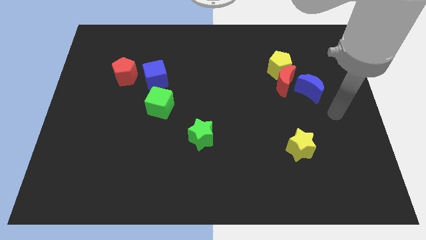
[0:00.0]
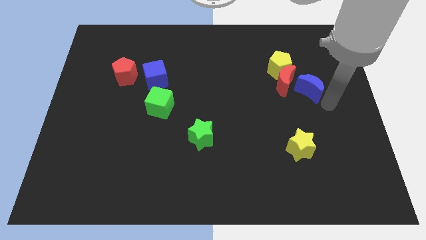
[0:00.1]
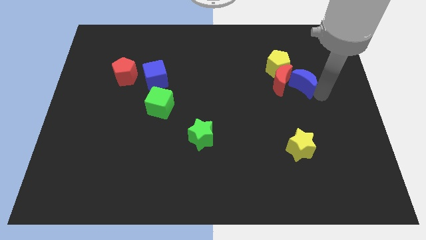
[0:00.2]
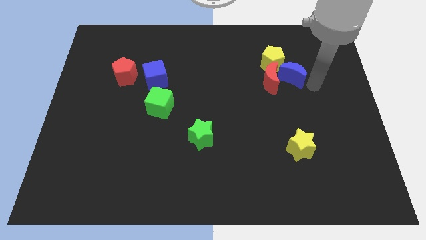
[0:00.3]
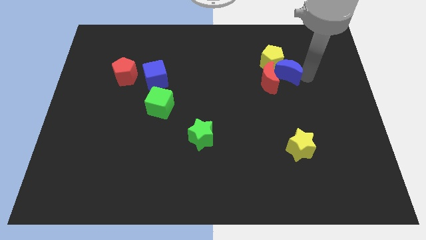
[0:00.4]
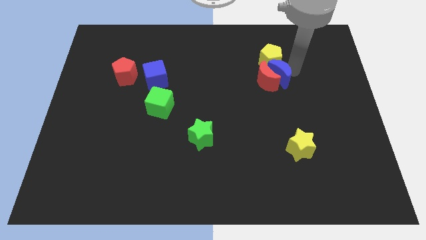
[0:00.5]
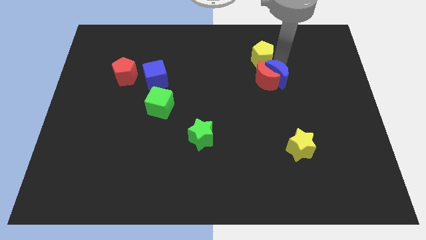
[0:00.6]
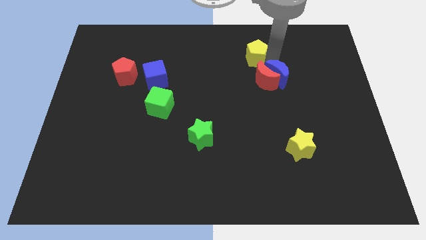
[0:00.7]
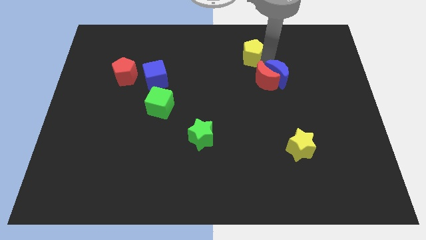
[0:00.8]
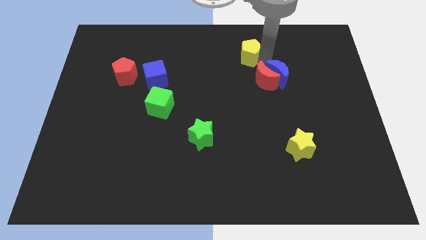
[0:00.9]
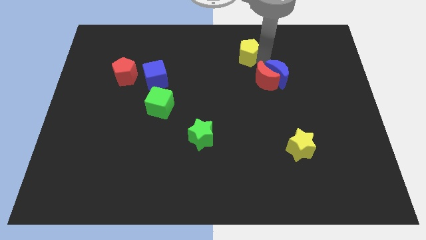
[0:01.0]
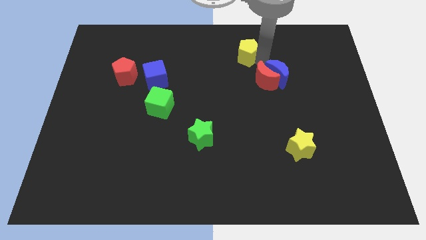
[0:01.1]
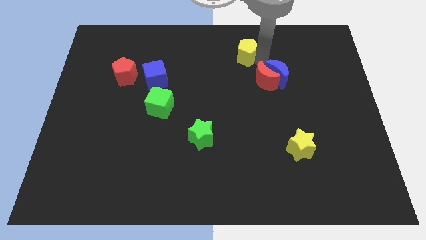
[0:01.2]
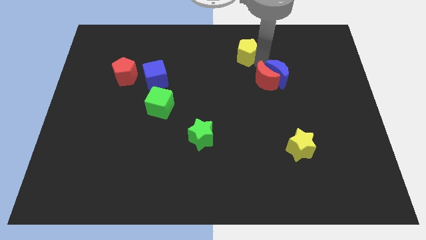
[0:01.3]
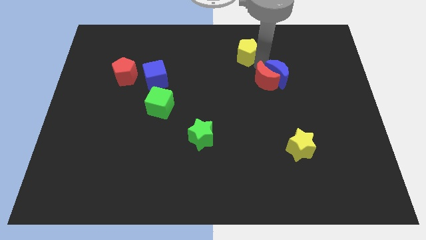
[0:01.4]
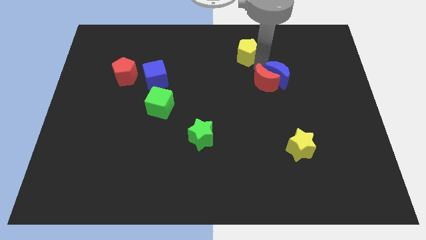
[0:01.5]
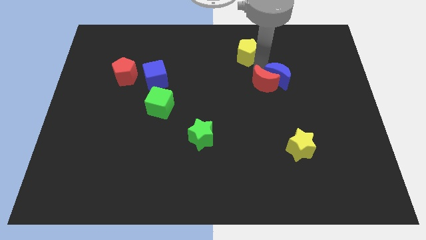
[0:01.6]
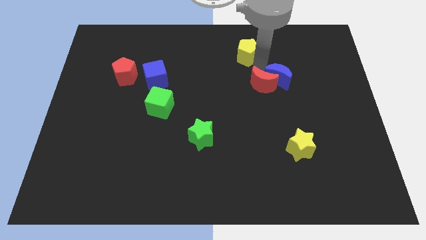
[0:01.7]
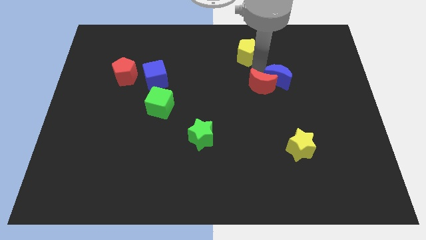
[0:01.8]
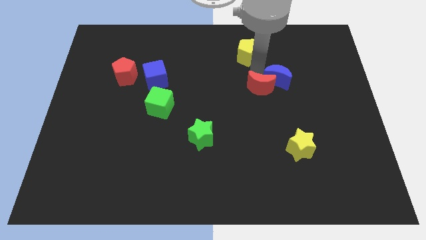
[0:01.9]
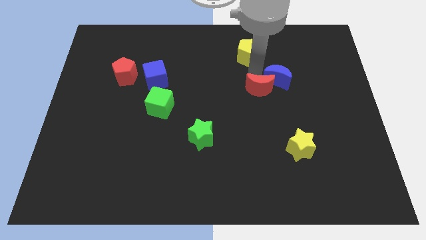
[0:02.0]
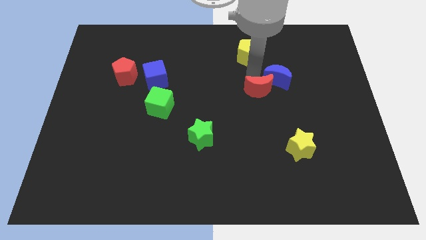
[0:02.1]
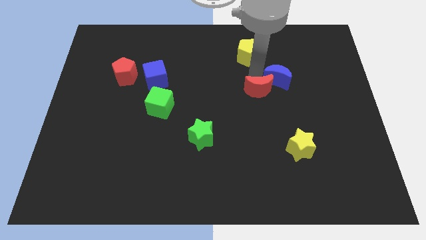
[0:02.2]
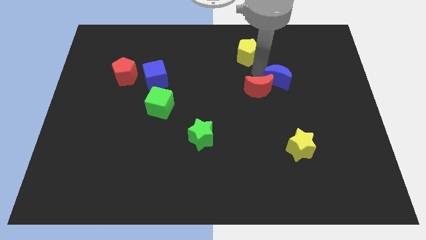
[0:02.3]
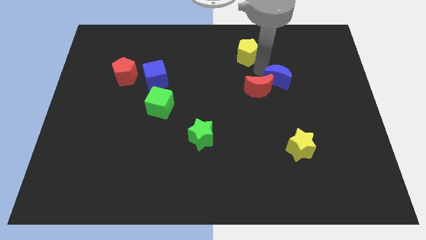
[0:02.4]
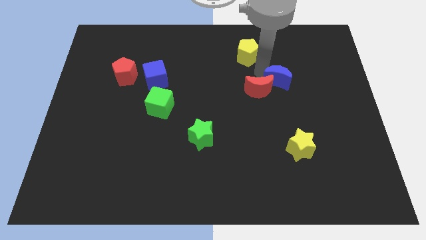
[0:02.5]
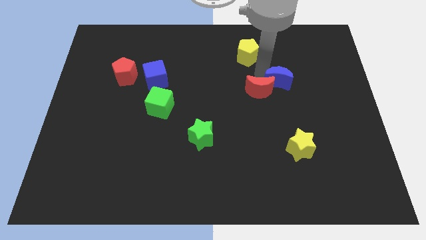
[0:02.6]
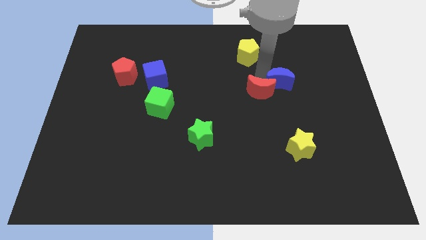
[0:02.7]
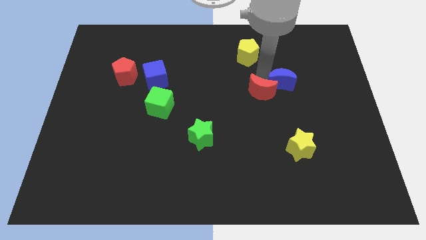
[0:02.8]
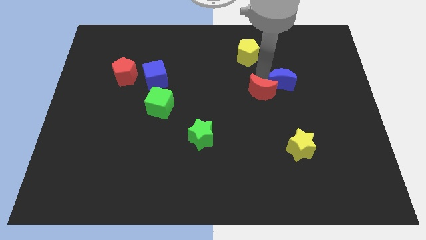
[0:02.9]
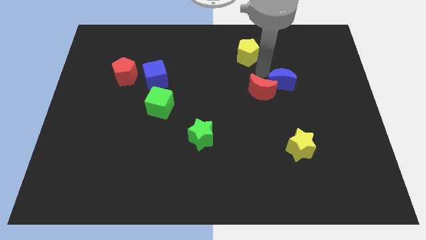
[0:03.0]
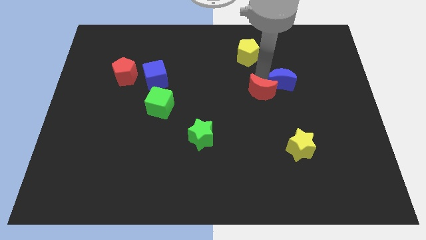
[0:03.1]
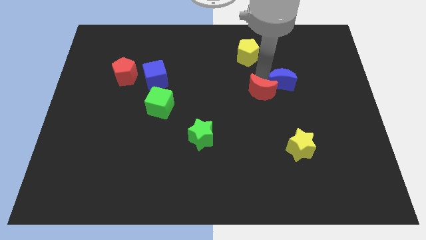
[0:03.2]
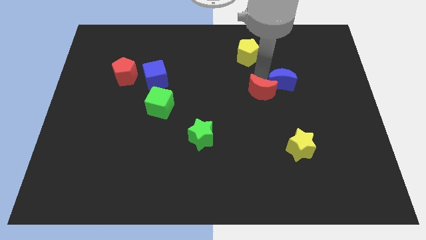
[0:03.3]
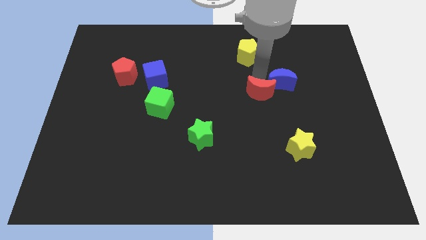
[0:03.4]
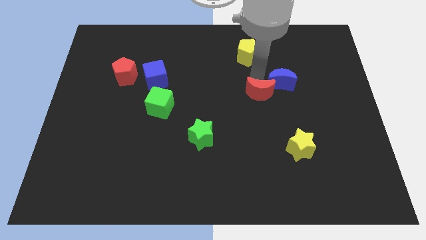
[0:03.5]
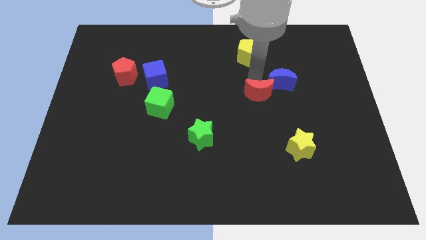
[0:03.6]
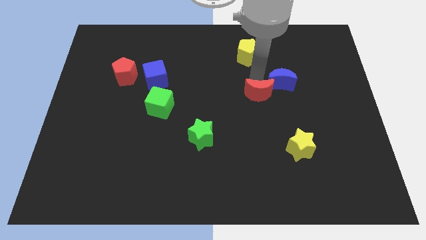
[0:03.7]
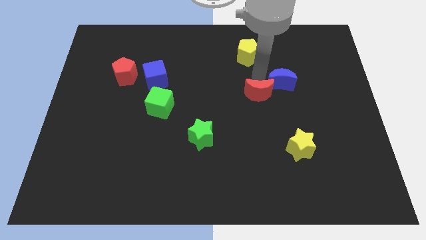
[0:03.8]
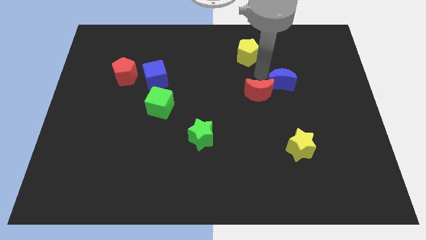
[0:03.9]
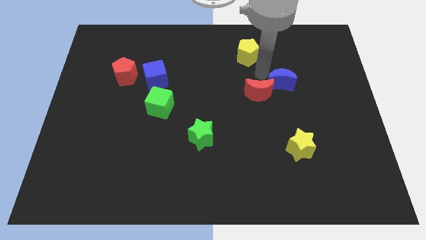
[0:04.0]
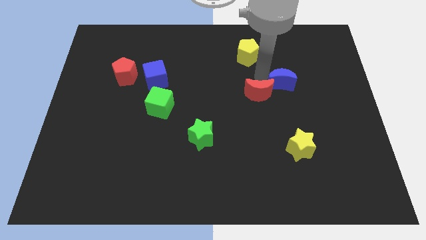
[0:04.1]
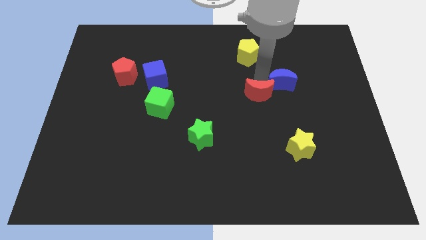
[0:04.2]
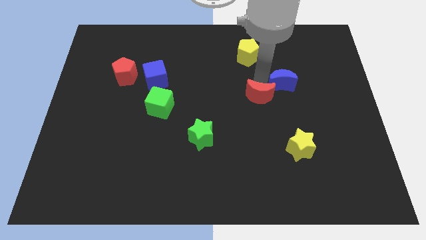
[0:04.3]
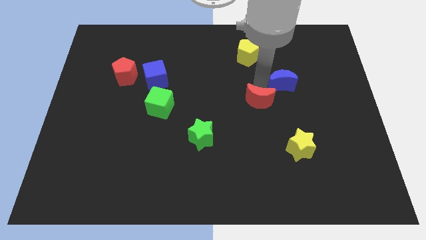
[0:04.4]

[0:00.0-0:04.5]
move the red moon away from the yellow pentagon and blue moon

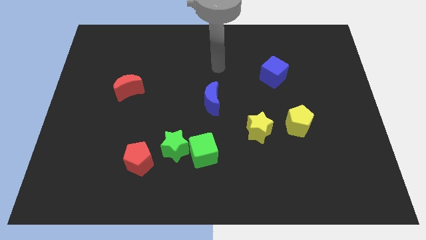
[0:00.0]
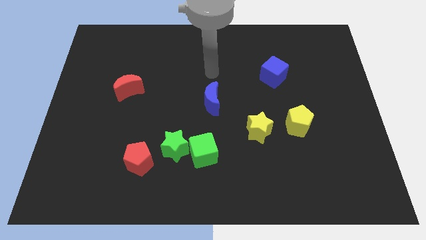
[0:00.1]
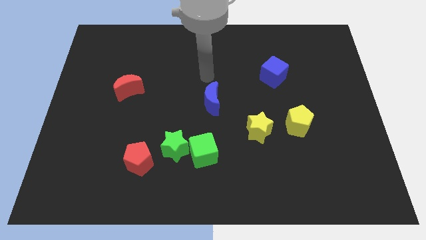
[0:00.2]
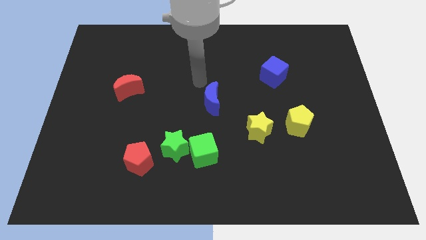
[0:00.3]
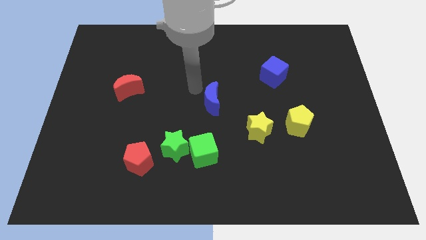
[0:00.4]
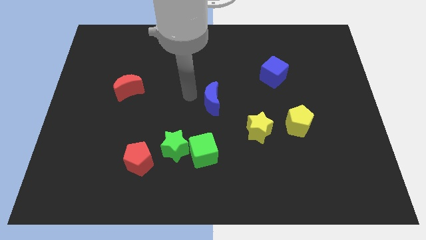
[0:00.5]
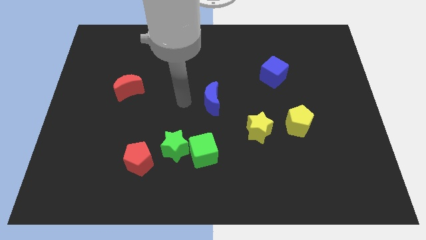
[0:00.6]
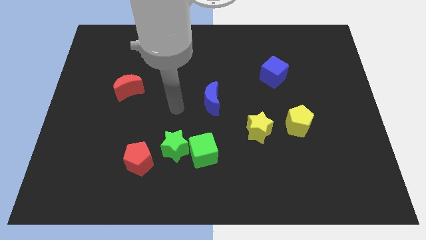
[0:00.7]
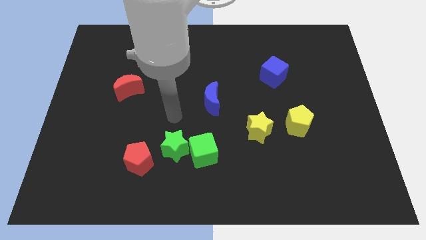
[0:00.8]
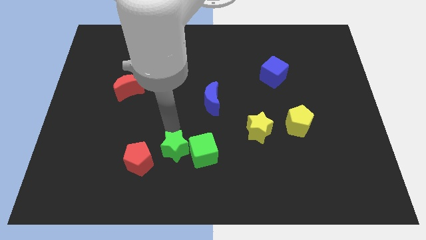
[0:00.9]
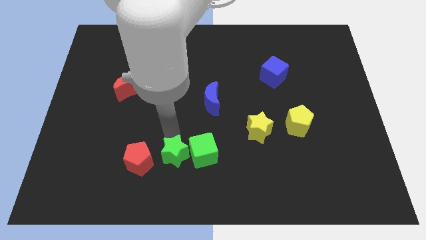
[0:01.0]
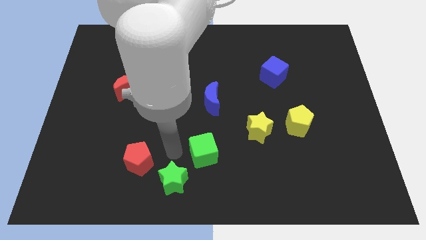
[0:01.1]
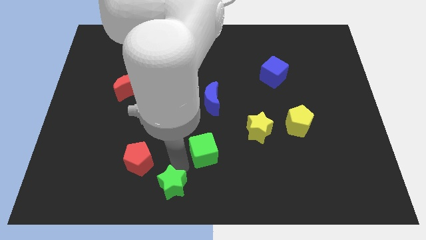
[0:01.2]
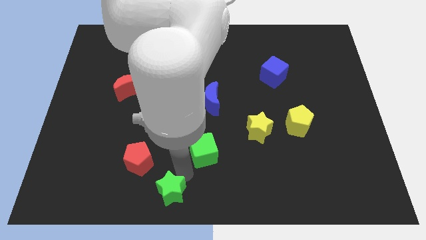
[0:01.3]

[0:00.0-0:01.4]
pull the green cube apart from the green star

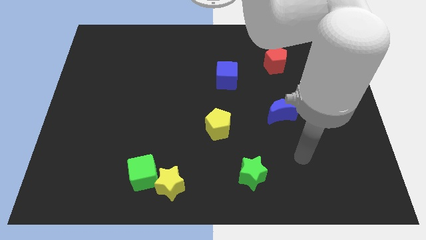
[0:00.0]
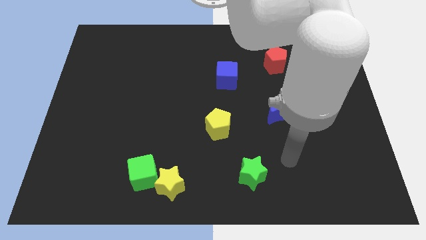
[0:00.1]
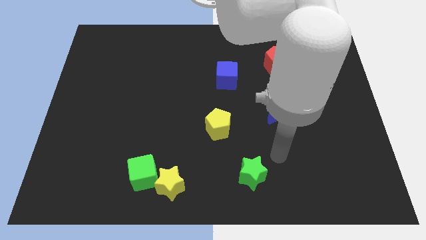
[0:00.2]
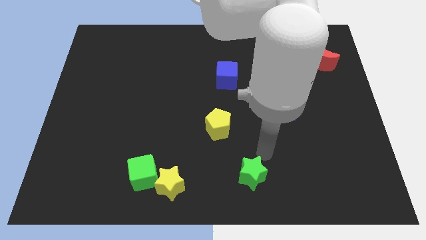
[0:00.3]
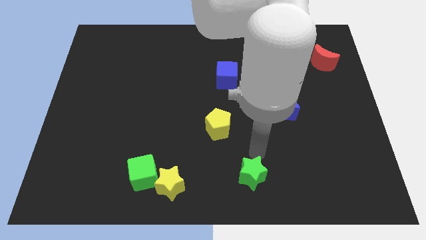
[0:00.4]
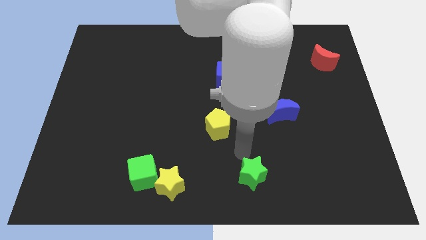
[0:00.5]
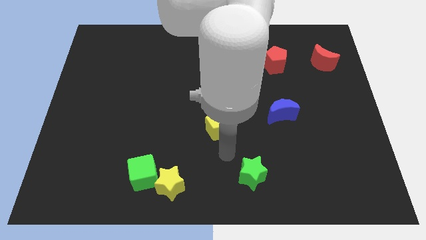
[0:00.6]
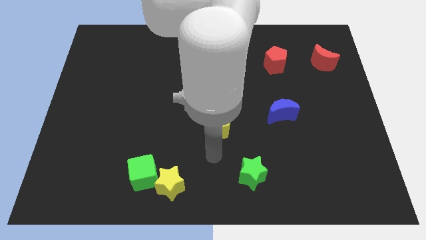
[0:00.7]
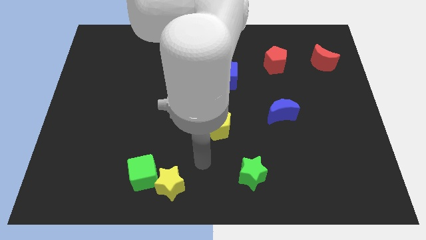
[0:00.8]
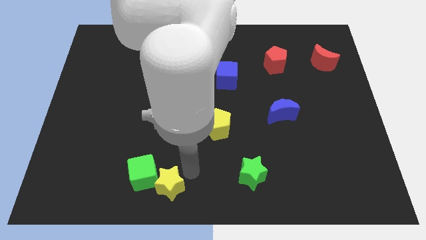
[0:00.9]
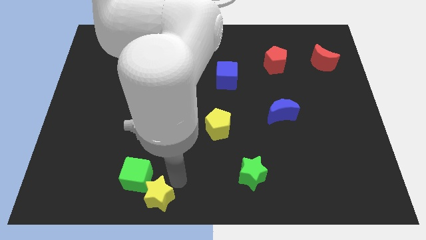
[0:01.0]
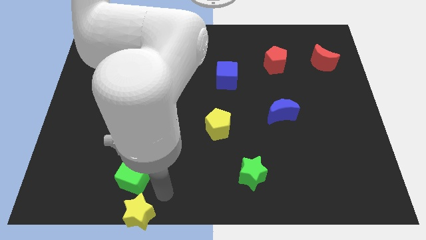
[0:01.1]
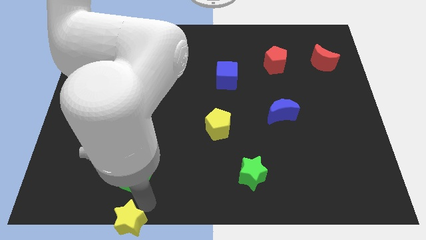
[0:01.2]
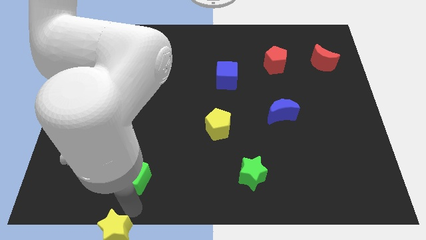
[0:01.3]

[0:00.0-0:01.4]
pull the green cube apart from the yellow star

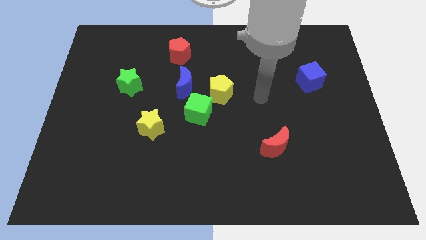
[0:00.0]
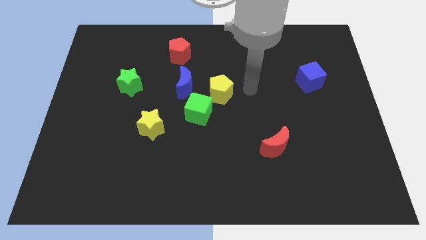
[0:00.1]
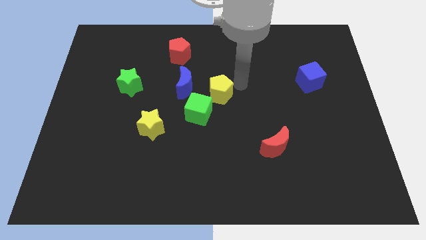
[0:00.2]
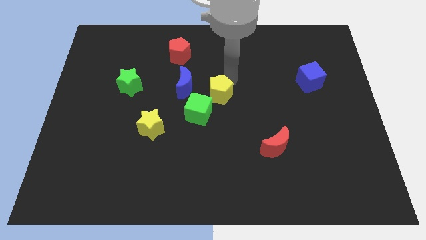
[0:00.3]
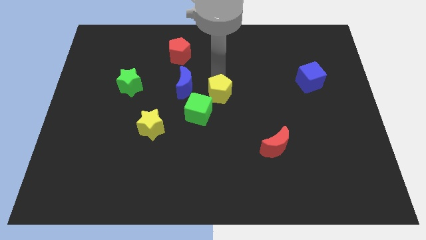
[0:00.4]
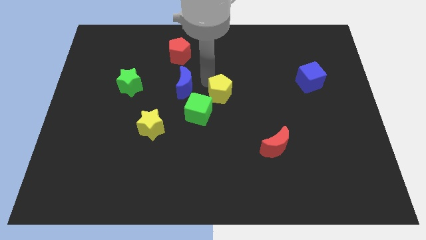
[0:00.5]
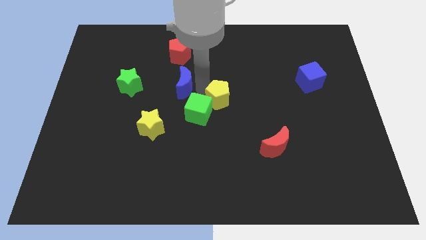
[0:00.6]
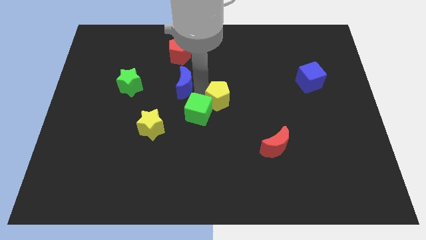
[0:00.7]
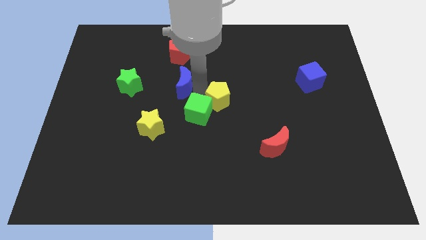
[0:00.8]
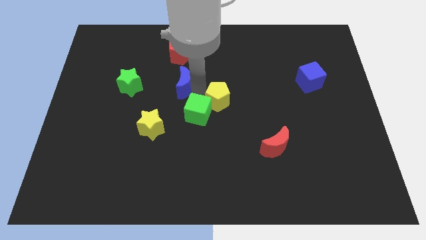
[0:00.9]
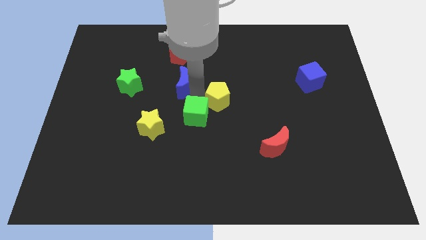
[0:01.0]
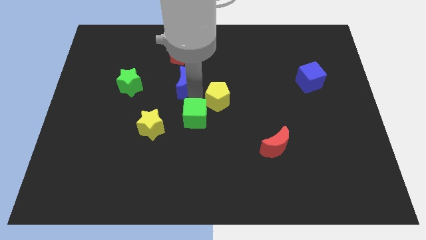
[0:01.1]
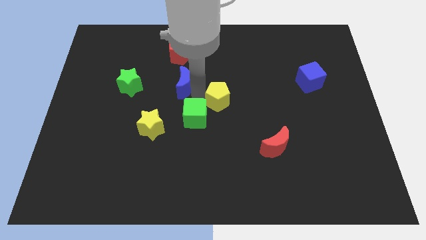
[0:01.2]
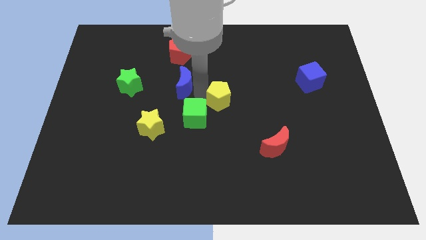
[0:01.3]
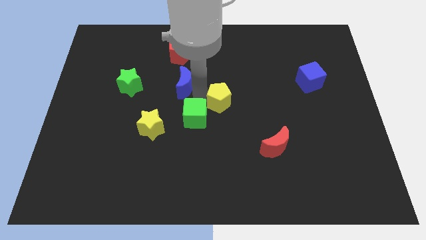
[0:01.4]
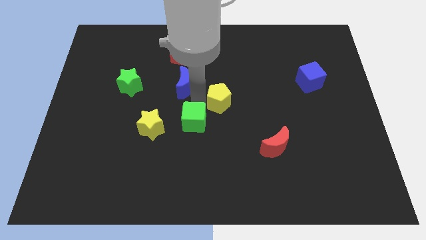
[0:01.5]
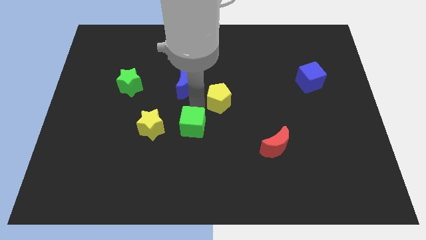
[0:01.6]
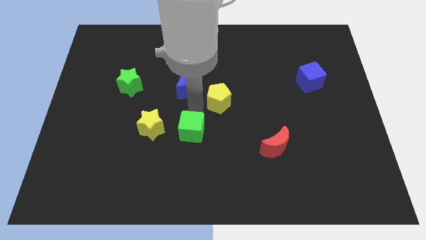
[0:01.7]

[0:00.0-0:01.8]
move the green cube away from the yellow pentagon and blue moon

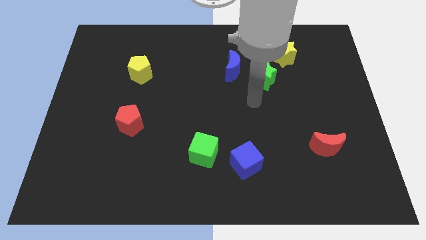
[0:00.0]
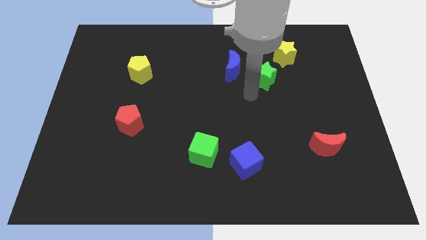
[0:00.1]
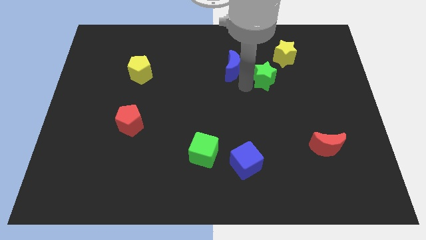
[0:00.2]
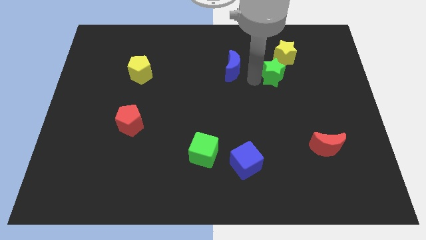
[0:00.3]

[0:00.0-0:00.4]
separate the blue moon from the green star
